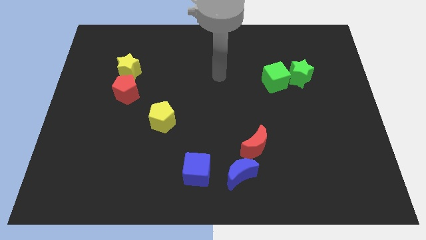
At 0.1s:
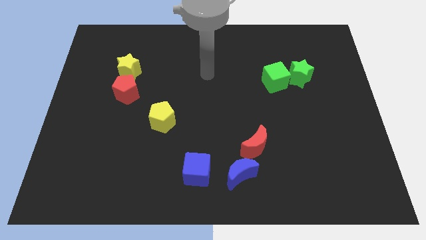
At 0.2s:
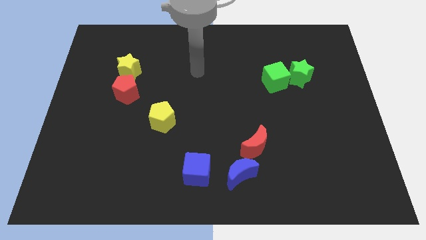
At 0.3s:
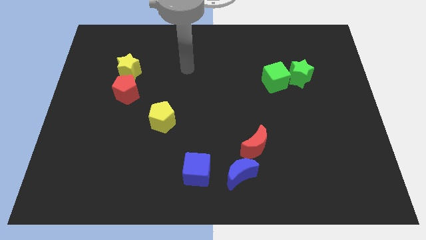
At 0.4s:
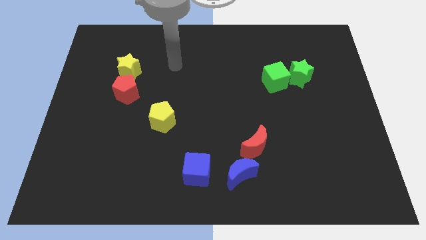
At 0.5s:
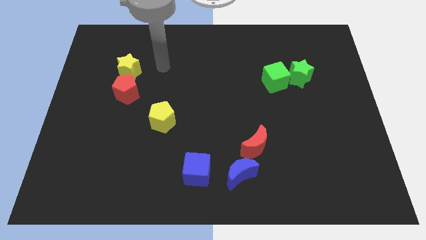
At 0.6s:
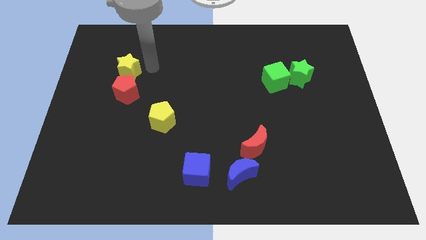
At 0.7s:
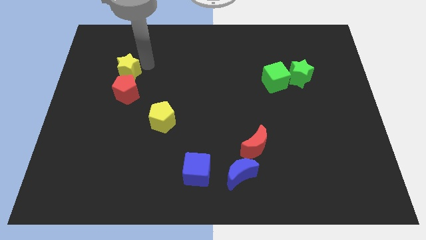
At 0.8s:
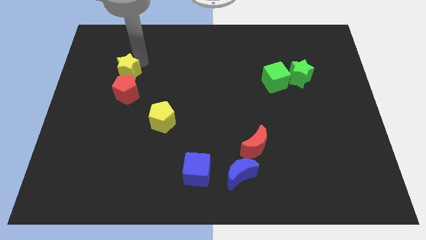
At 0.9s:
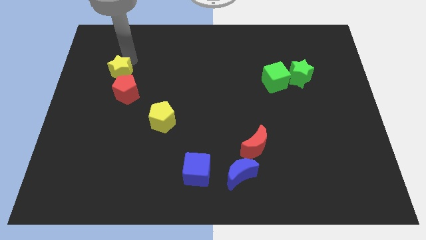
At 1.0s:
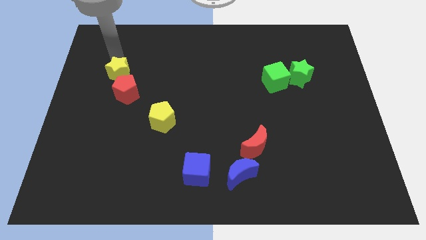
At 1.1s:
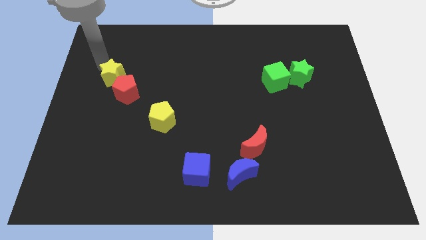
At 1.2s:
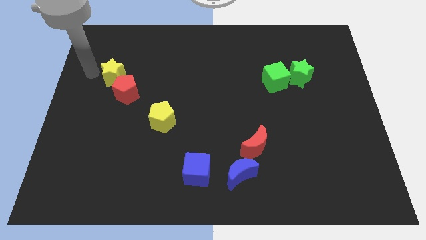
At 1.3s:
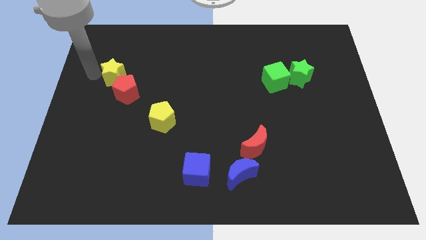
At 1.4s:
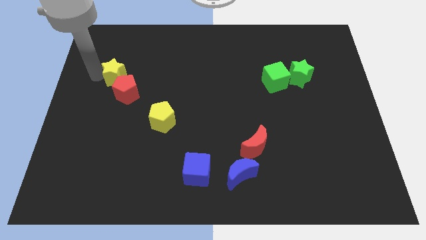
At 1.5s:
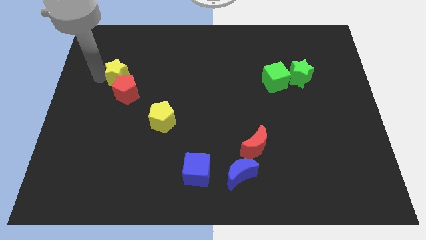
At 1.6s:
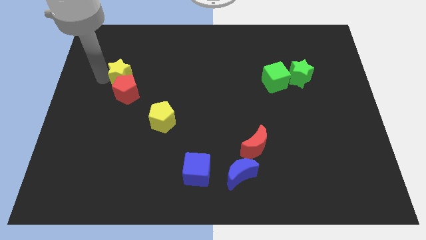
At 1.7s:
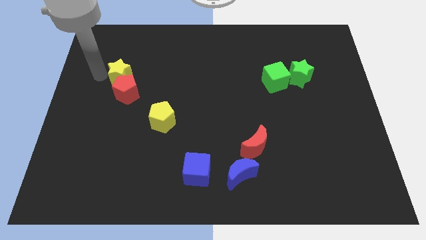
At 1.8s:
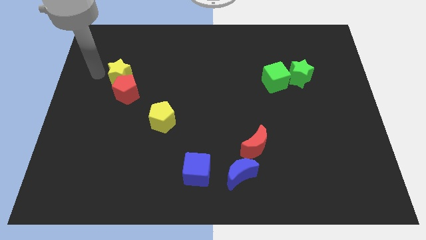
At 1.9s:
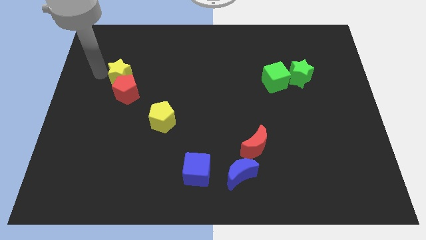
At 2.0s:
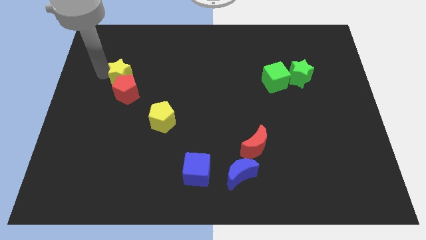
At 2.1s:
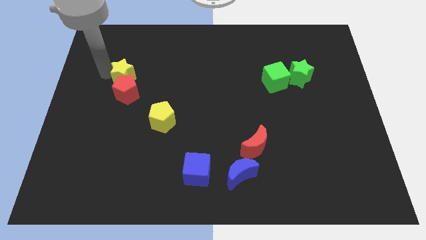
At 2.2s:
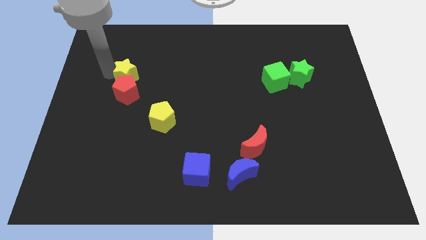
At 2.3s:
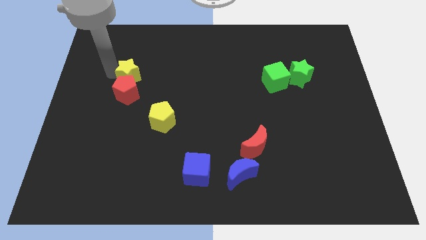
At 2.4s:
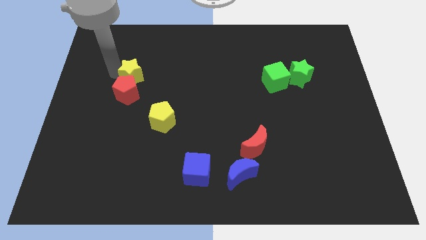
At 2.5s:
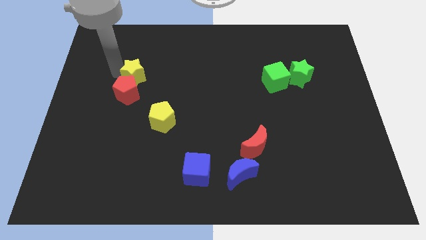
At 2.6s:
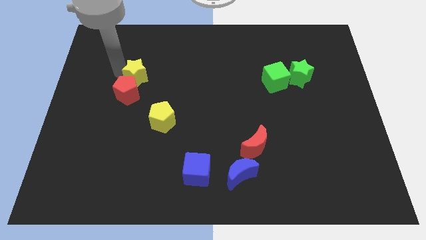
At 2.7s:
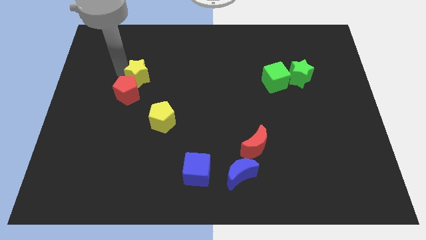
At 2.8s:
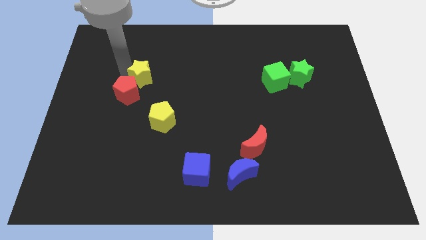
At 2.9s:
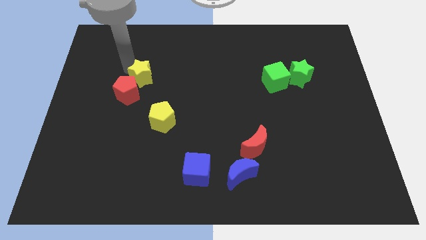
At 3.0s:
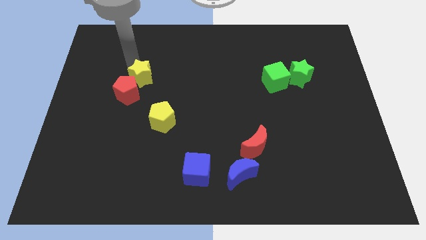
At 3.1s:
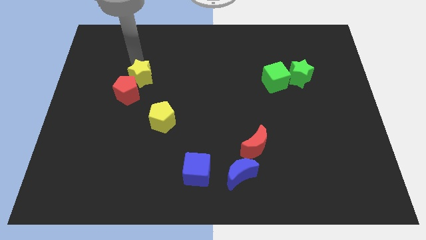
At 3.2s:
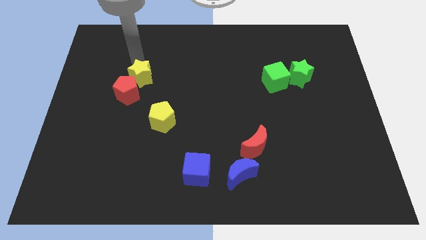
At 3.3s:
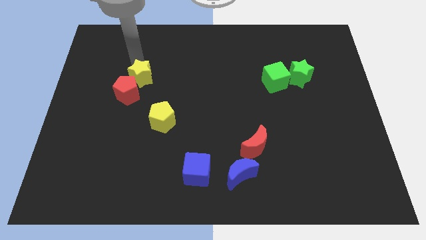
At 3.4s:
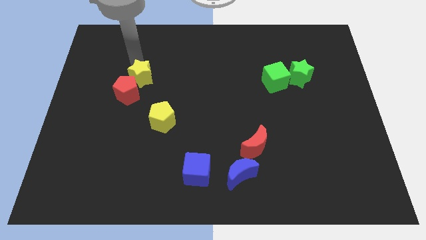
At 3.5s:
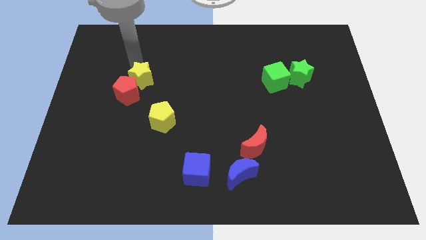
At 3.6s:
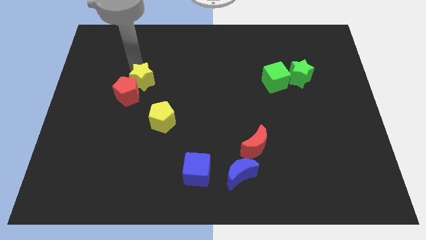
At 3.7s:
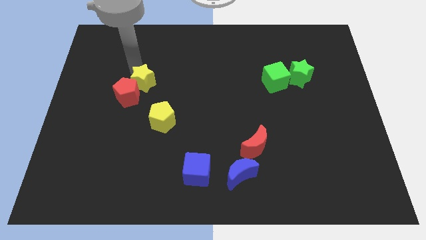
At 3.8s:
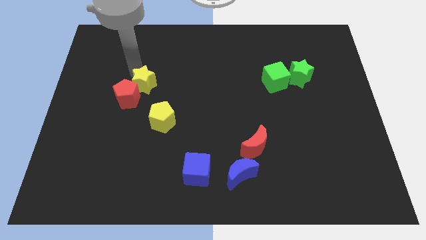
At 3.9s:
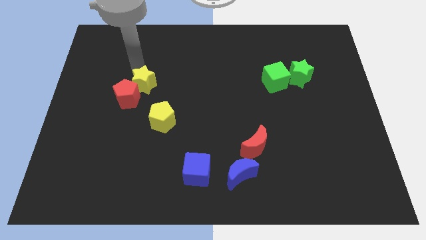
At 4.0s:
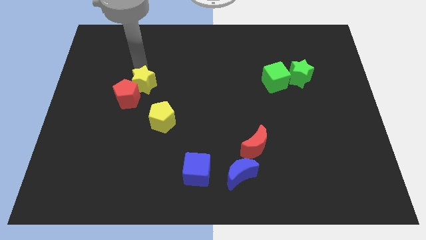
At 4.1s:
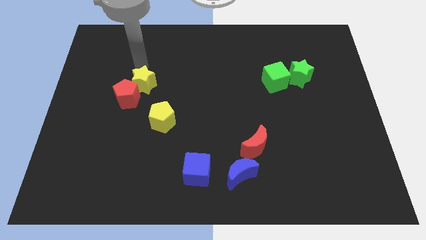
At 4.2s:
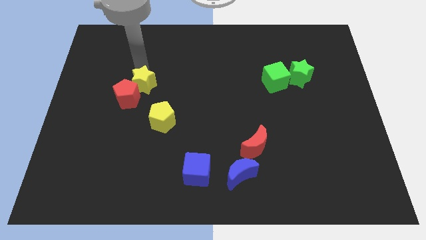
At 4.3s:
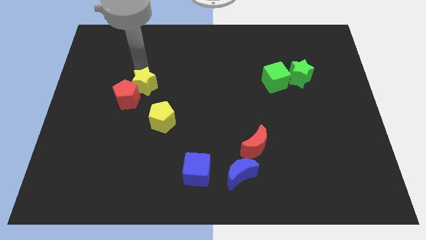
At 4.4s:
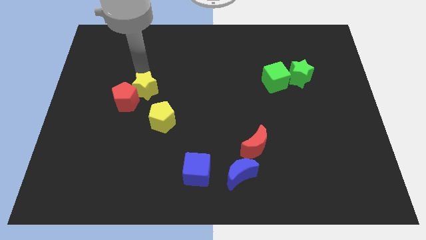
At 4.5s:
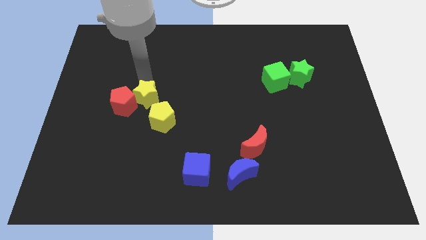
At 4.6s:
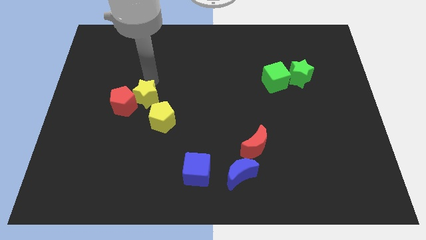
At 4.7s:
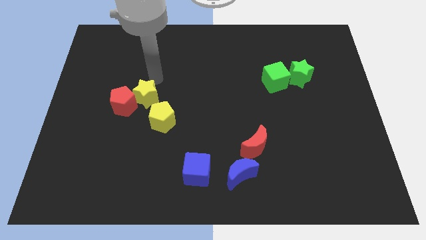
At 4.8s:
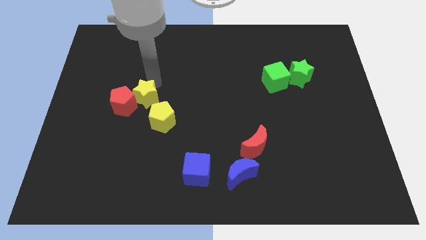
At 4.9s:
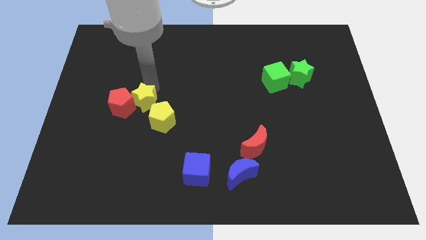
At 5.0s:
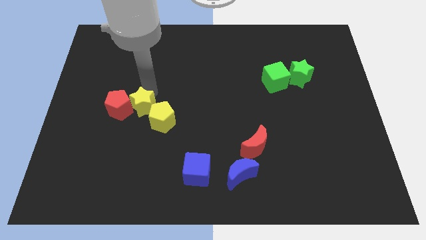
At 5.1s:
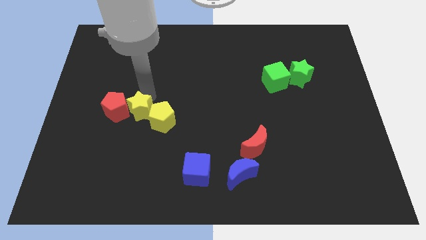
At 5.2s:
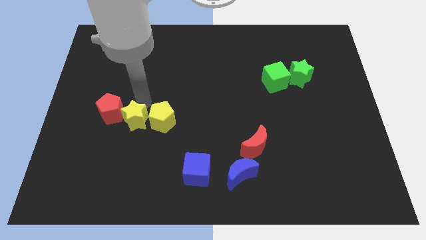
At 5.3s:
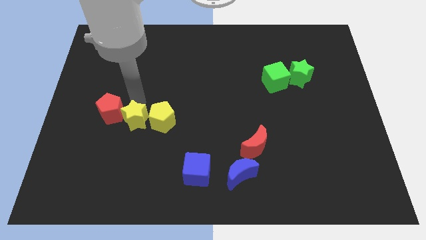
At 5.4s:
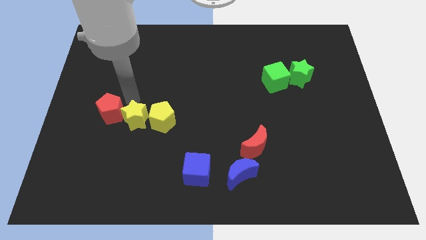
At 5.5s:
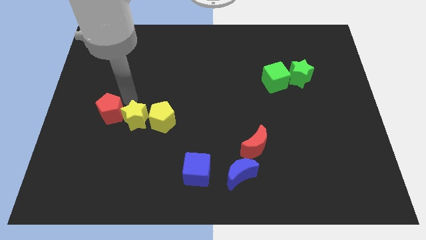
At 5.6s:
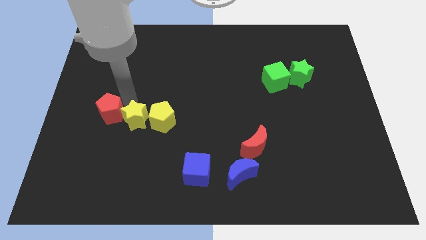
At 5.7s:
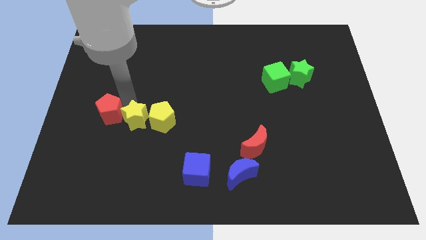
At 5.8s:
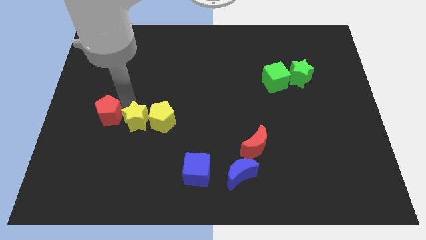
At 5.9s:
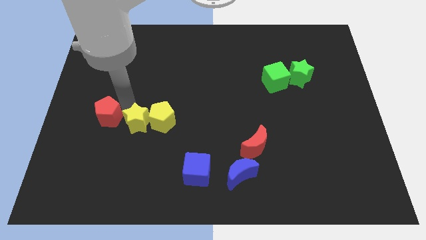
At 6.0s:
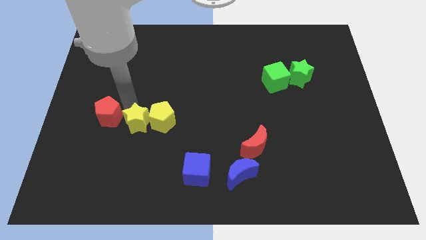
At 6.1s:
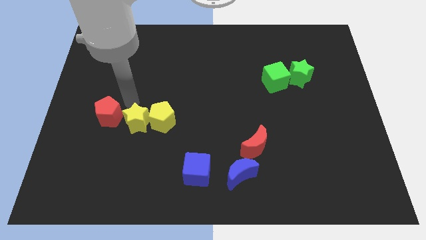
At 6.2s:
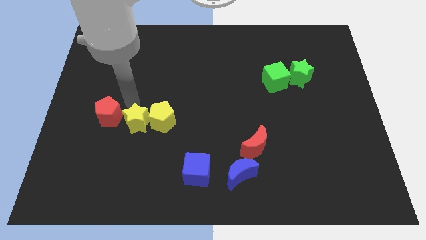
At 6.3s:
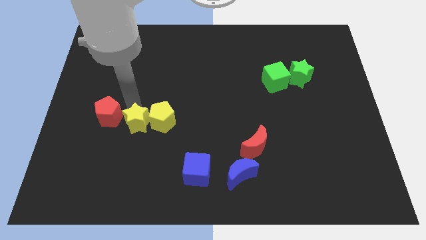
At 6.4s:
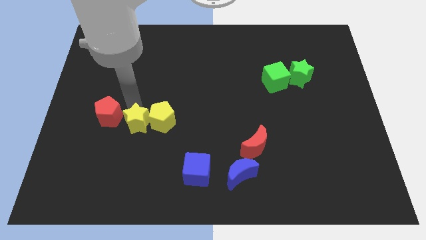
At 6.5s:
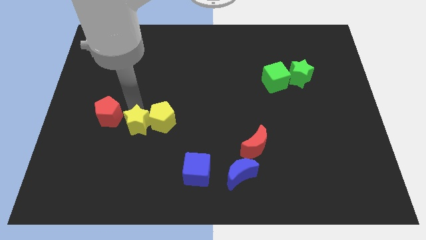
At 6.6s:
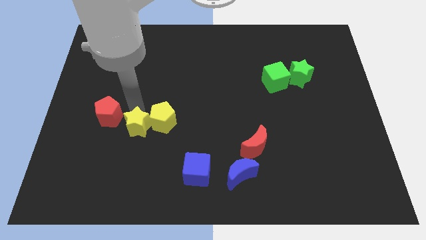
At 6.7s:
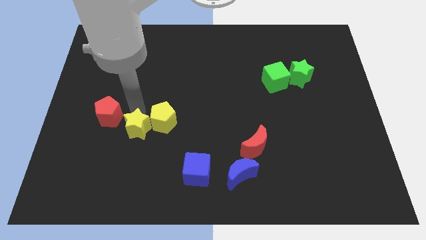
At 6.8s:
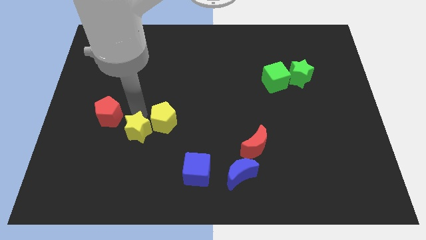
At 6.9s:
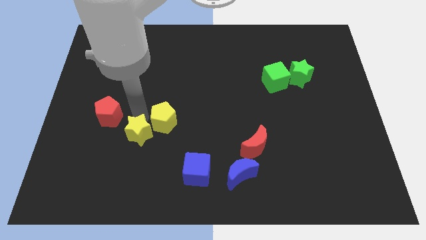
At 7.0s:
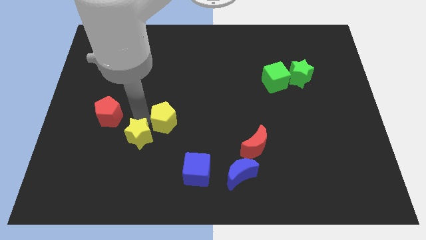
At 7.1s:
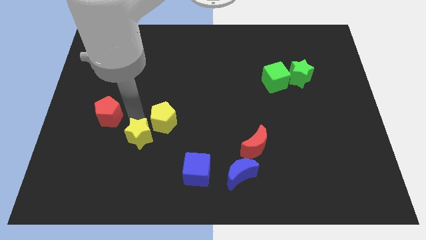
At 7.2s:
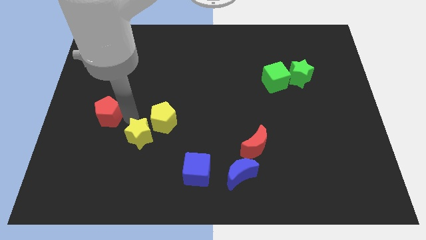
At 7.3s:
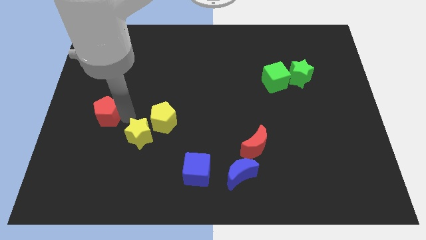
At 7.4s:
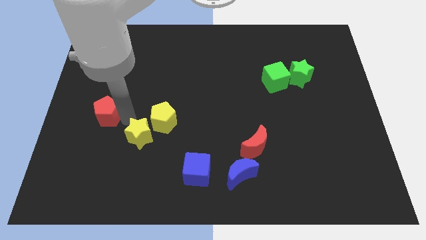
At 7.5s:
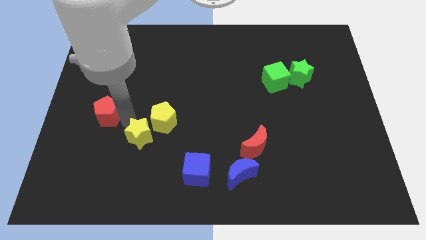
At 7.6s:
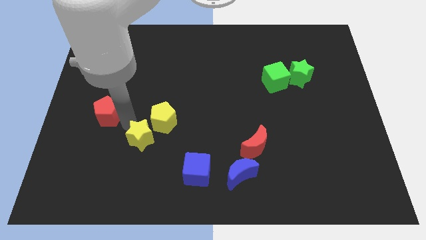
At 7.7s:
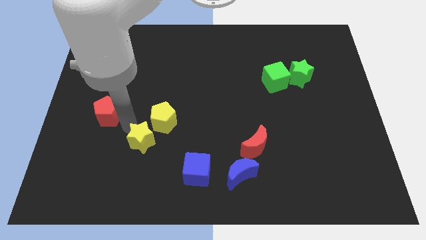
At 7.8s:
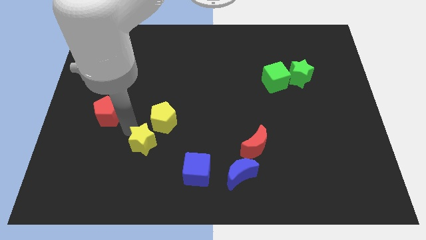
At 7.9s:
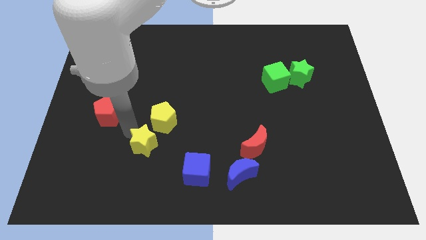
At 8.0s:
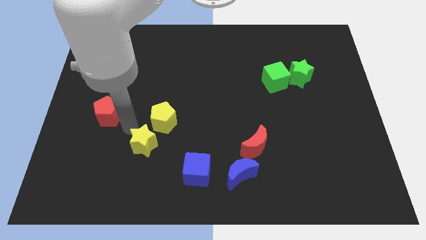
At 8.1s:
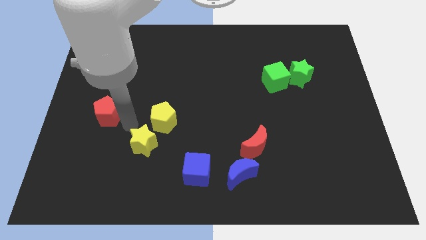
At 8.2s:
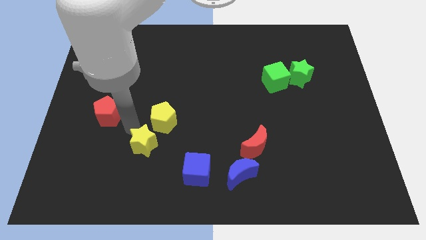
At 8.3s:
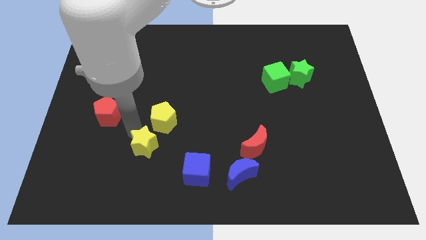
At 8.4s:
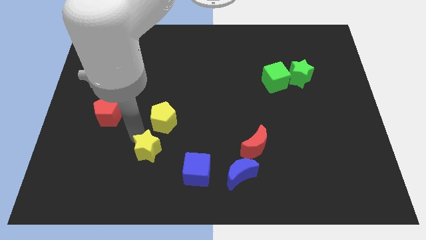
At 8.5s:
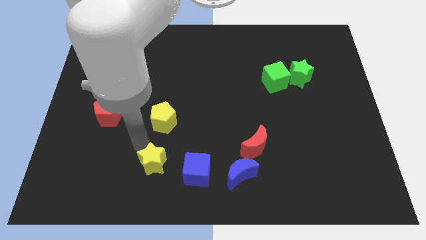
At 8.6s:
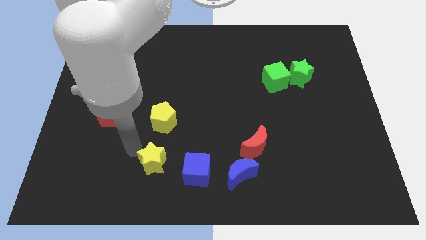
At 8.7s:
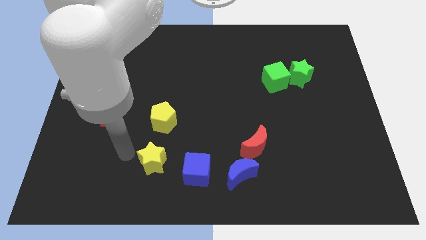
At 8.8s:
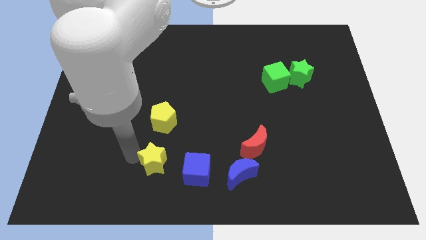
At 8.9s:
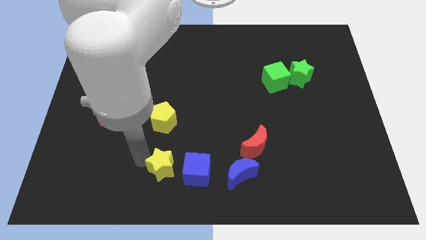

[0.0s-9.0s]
move the yellow star to the left side of the blue moon
